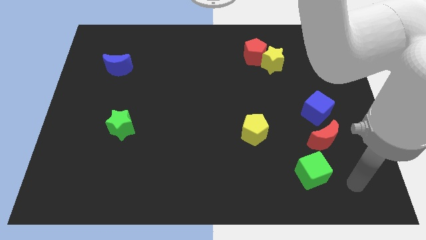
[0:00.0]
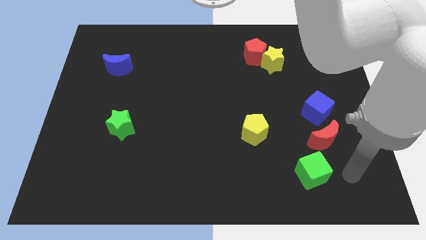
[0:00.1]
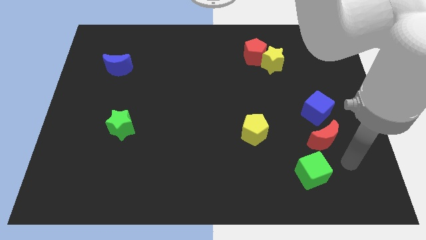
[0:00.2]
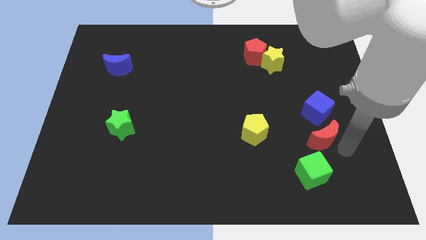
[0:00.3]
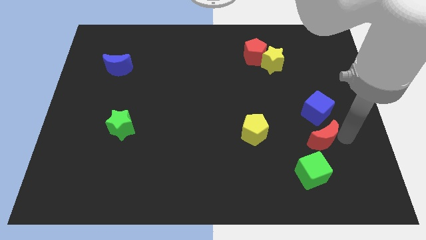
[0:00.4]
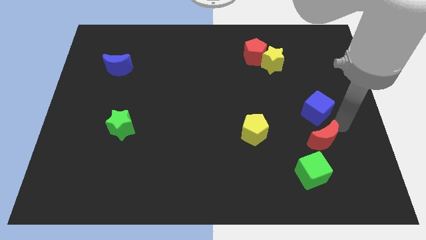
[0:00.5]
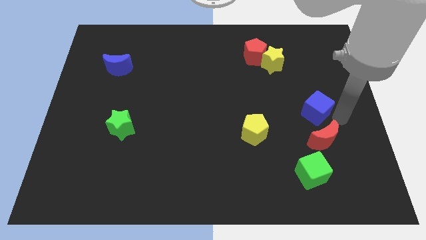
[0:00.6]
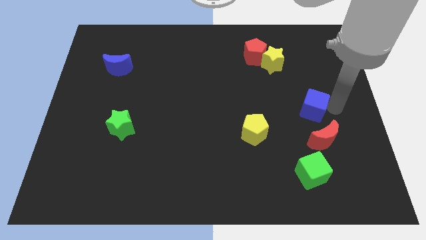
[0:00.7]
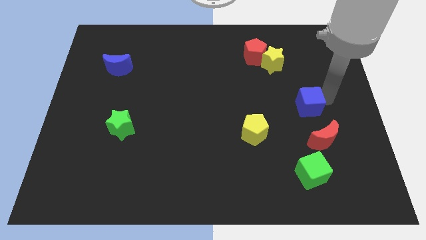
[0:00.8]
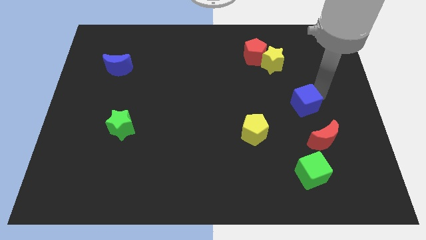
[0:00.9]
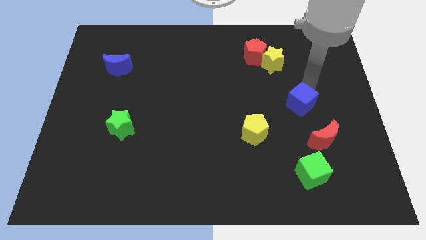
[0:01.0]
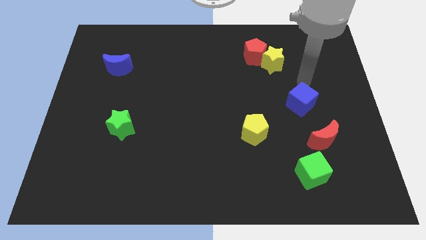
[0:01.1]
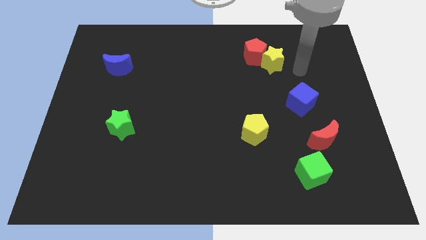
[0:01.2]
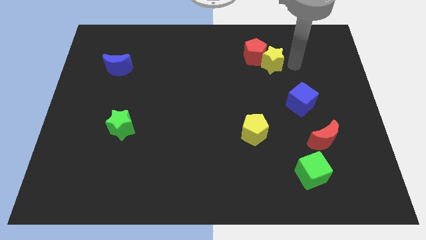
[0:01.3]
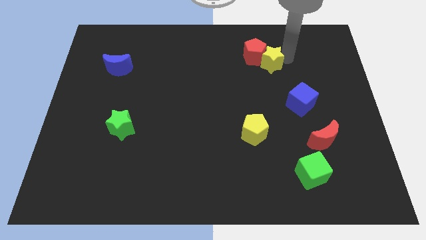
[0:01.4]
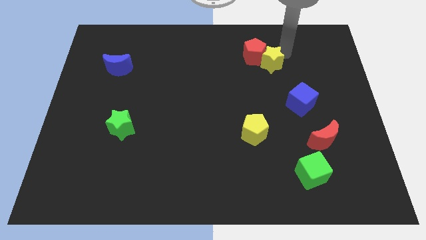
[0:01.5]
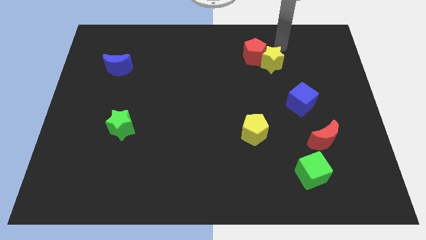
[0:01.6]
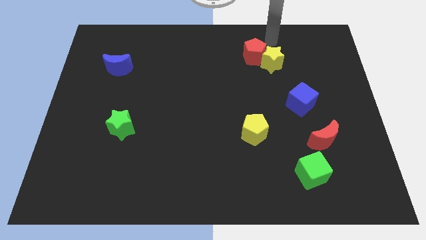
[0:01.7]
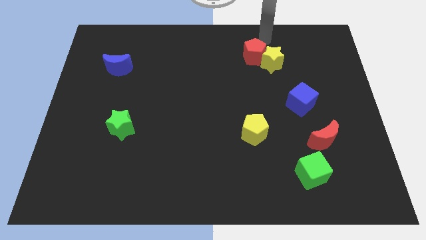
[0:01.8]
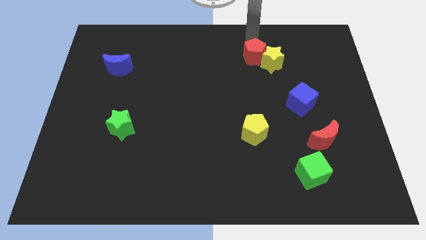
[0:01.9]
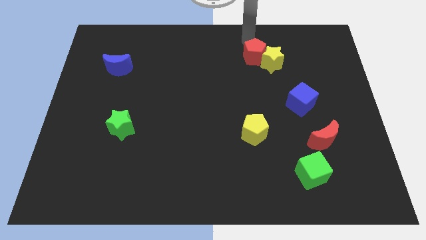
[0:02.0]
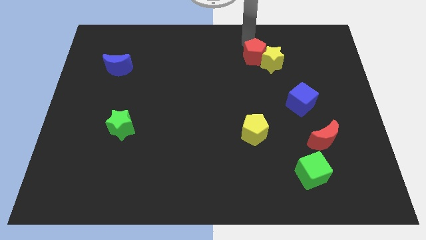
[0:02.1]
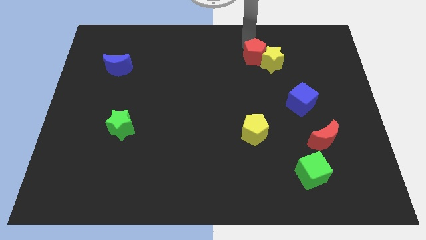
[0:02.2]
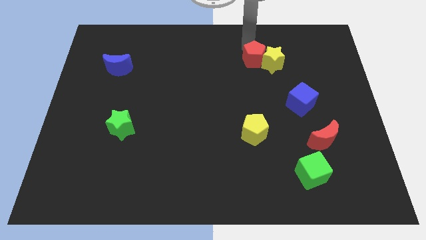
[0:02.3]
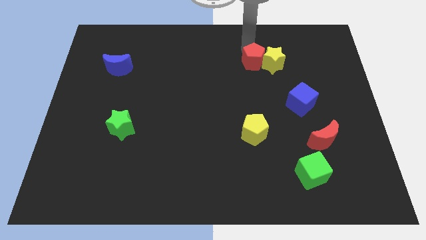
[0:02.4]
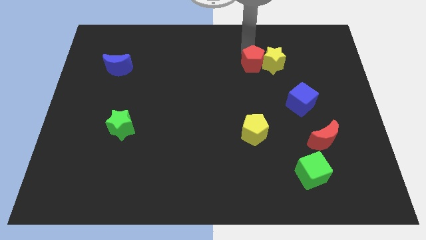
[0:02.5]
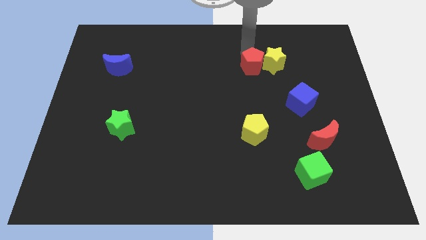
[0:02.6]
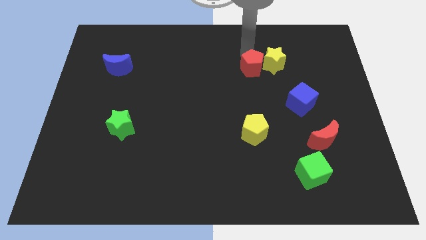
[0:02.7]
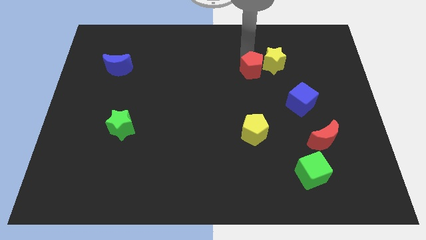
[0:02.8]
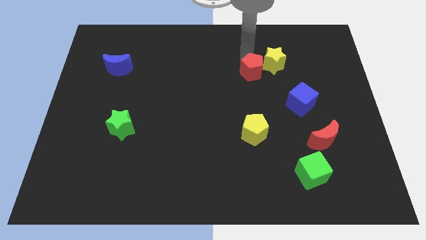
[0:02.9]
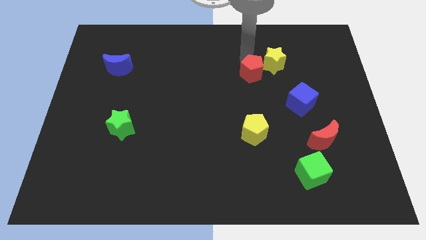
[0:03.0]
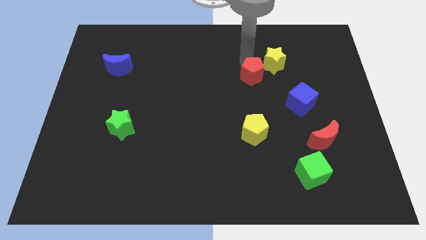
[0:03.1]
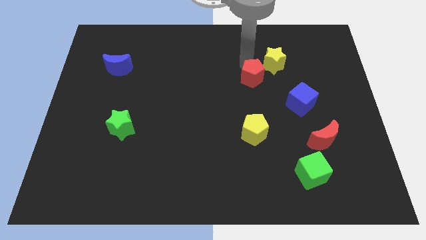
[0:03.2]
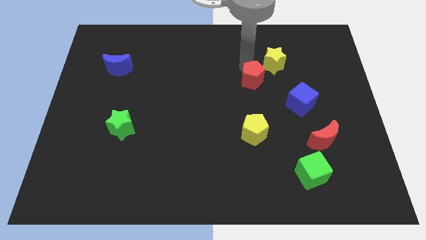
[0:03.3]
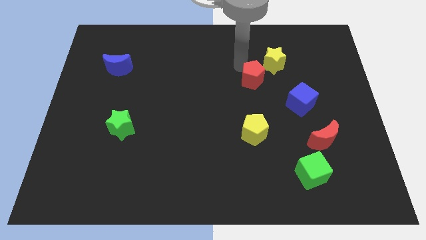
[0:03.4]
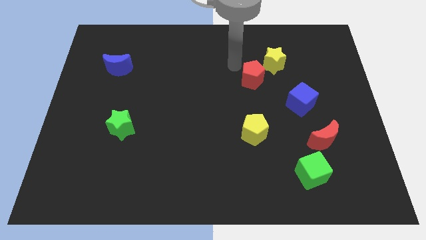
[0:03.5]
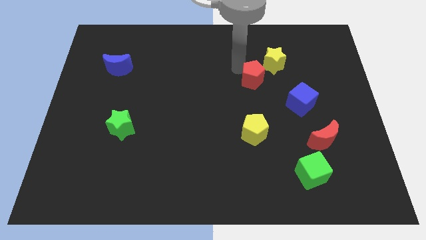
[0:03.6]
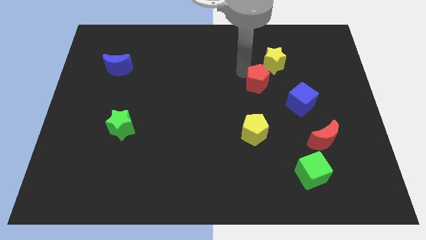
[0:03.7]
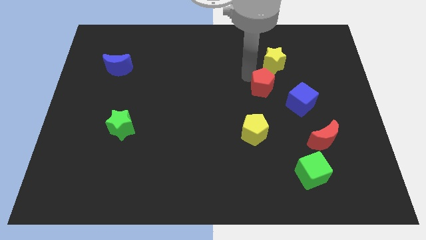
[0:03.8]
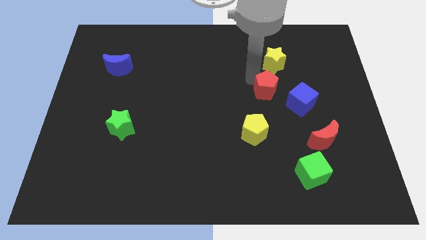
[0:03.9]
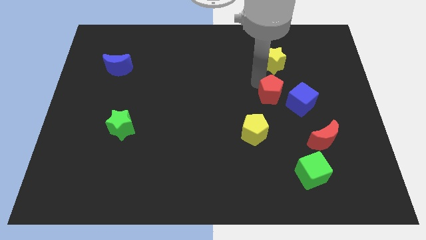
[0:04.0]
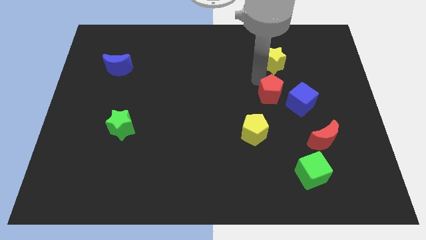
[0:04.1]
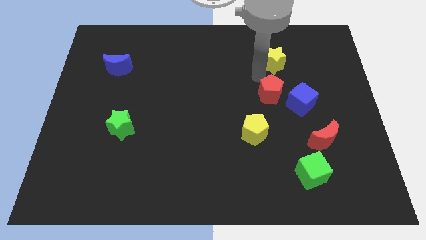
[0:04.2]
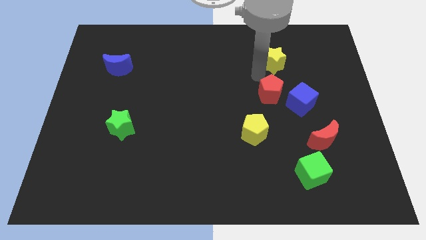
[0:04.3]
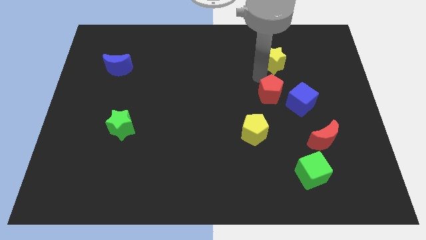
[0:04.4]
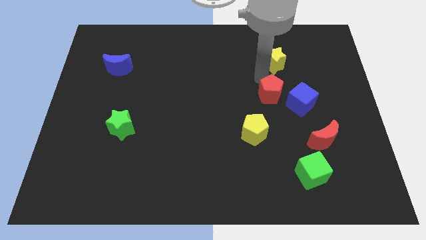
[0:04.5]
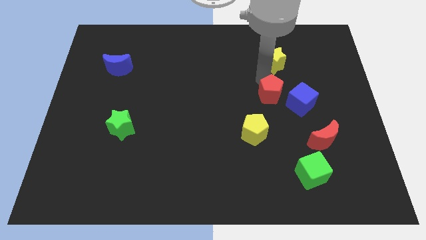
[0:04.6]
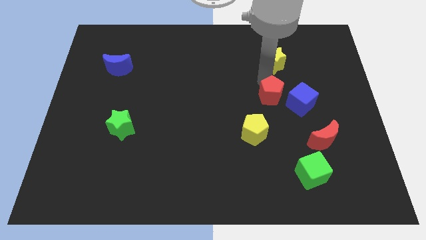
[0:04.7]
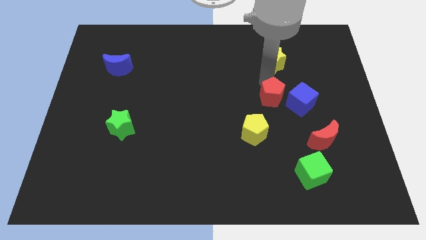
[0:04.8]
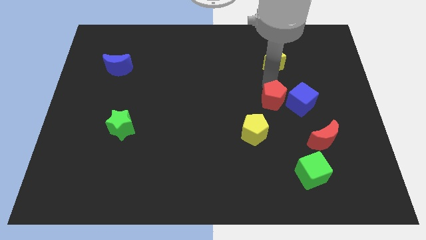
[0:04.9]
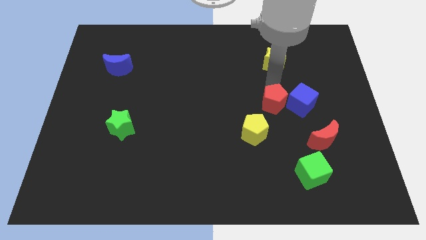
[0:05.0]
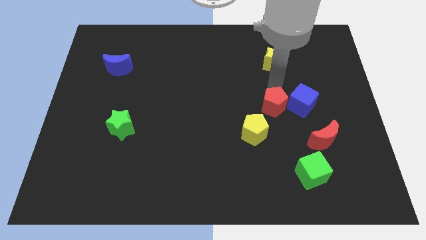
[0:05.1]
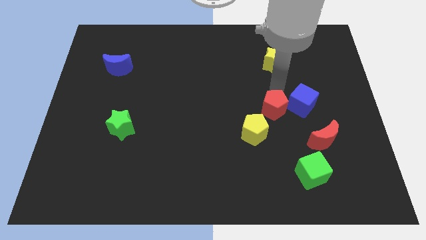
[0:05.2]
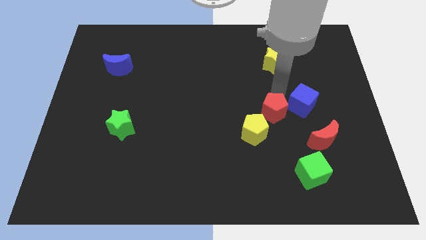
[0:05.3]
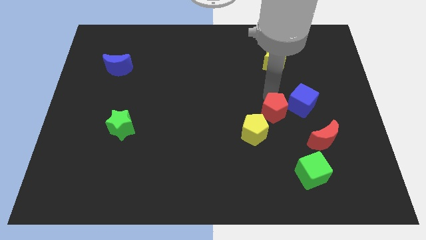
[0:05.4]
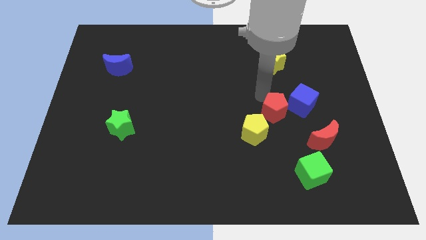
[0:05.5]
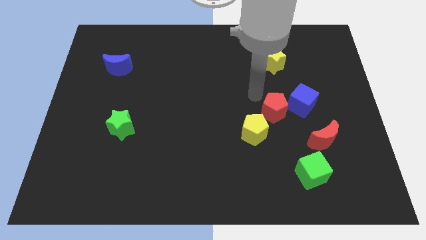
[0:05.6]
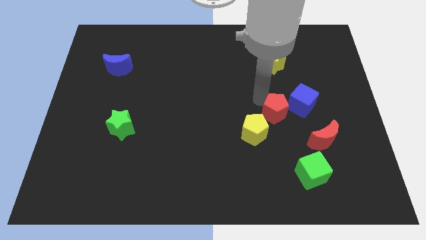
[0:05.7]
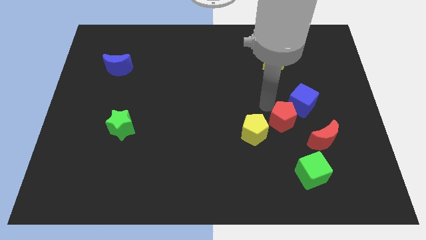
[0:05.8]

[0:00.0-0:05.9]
put the red pentagon to the right of the yellow pentagon

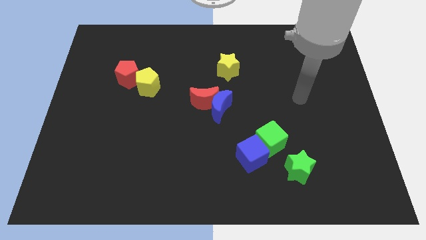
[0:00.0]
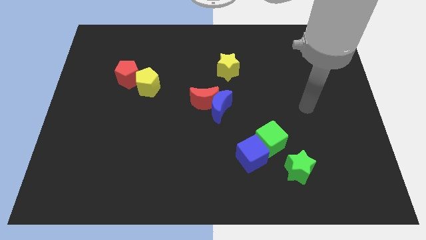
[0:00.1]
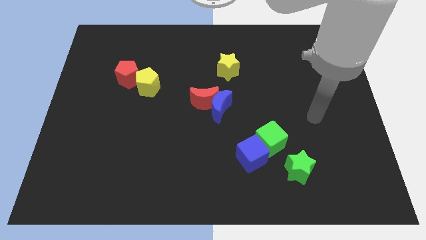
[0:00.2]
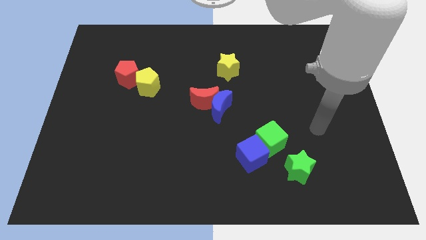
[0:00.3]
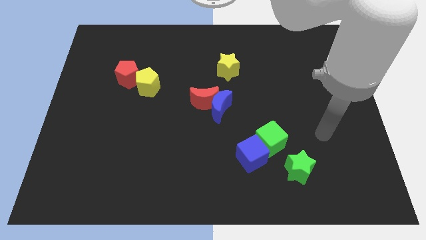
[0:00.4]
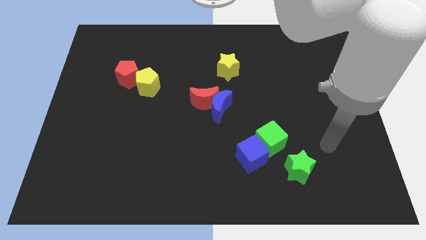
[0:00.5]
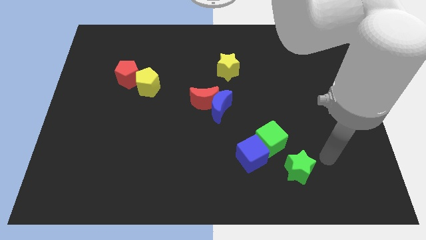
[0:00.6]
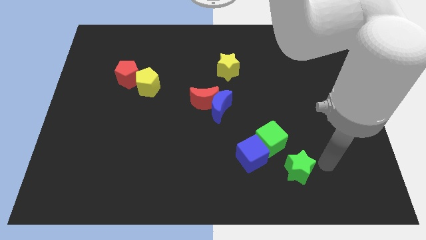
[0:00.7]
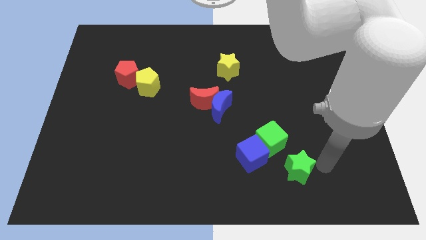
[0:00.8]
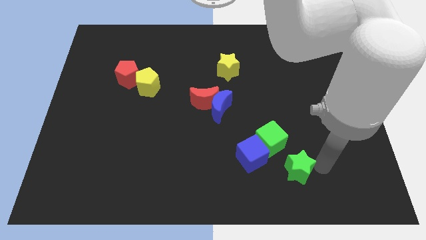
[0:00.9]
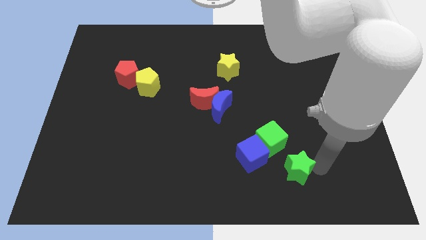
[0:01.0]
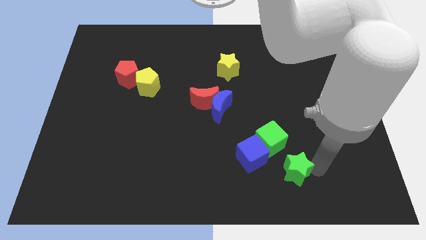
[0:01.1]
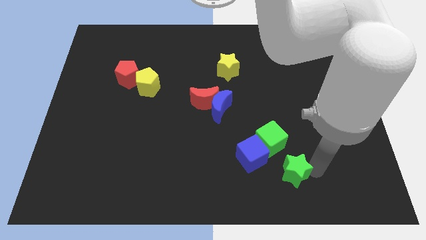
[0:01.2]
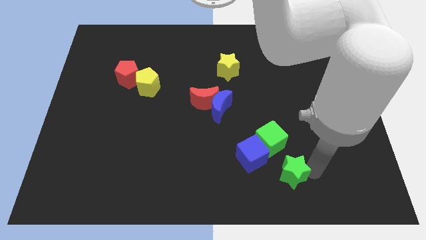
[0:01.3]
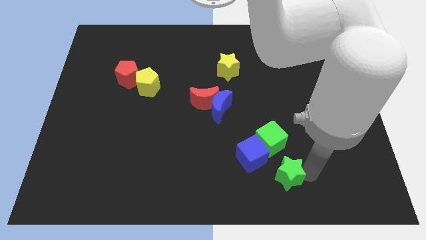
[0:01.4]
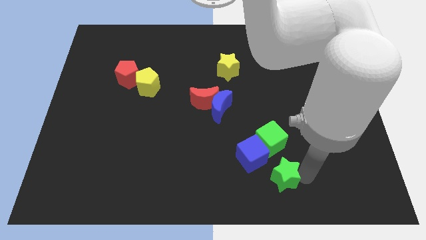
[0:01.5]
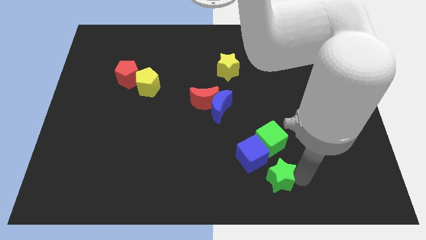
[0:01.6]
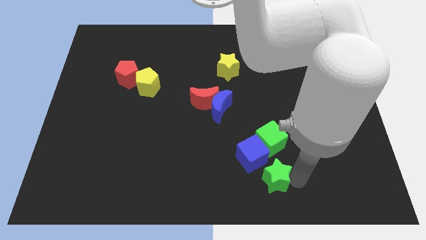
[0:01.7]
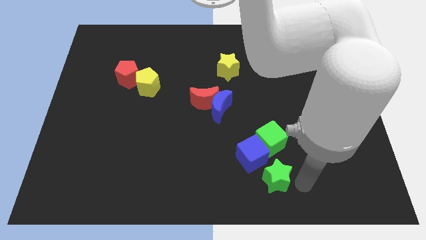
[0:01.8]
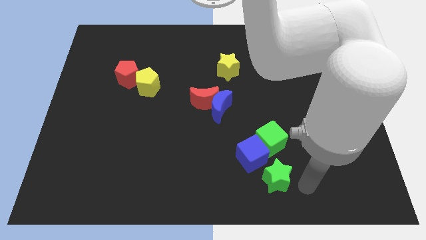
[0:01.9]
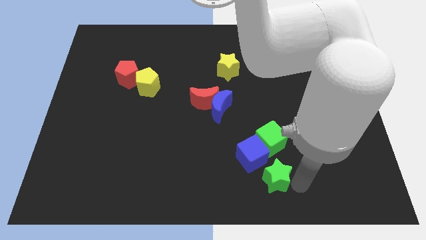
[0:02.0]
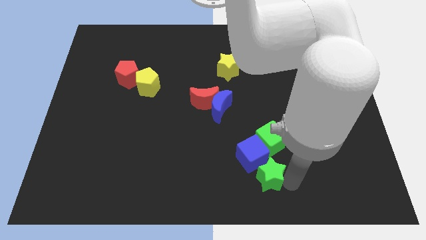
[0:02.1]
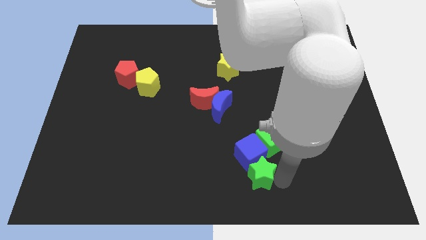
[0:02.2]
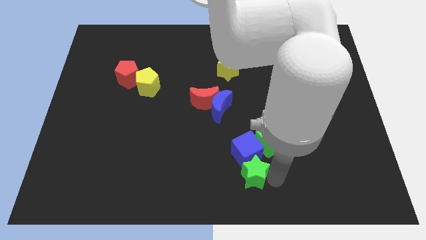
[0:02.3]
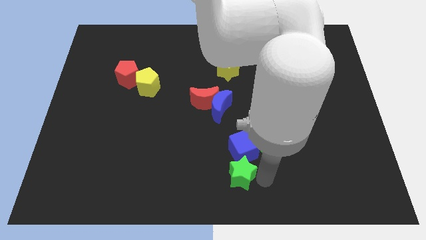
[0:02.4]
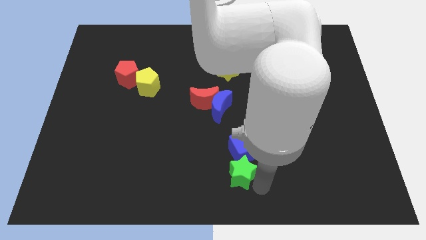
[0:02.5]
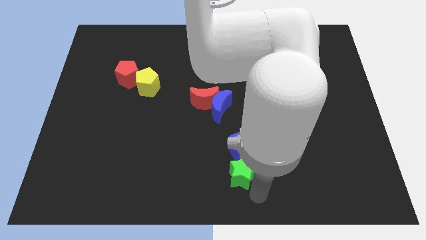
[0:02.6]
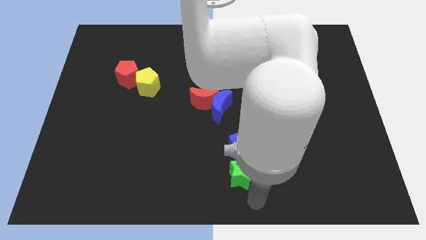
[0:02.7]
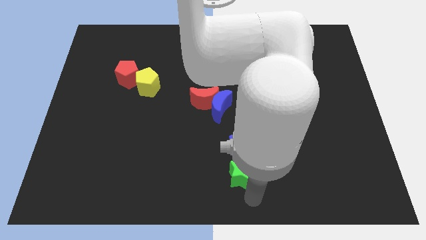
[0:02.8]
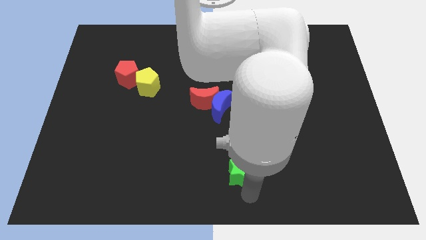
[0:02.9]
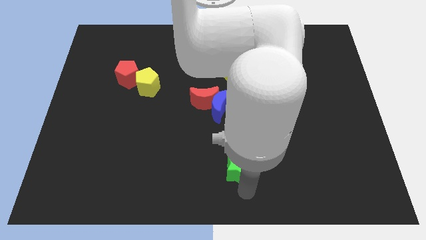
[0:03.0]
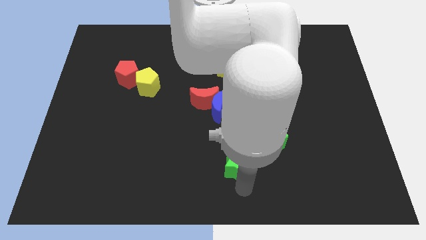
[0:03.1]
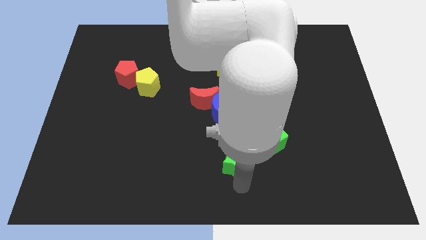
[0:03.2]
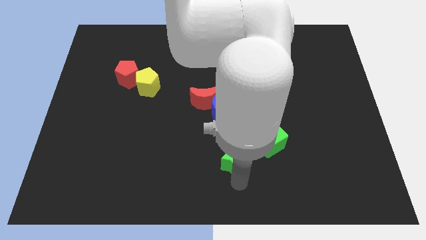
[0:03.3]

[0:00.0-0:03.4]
move the green star just left of the green cube
